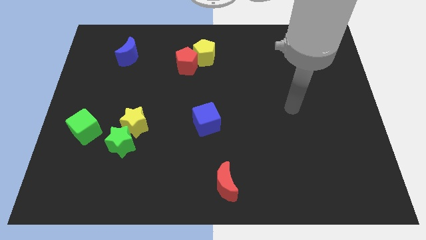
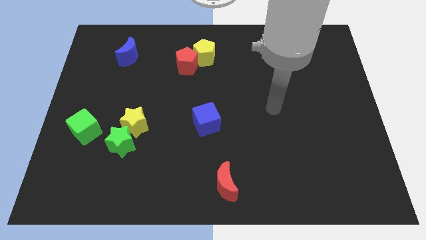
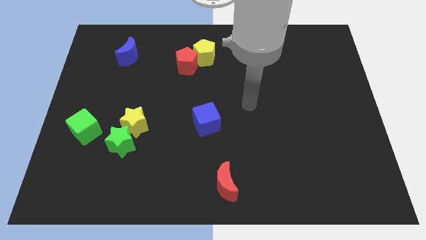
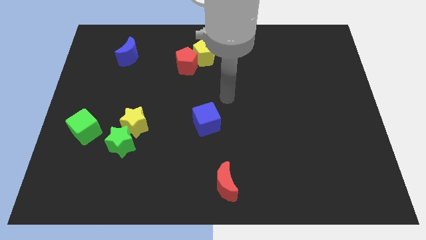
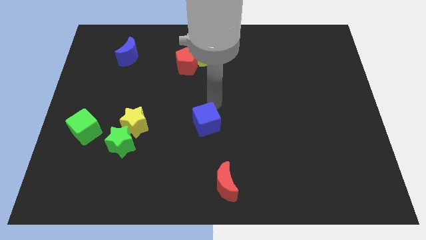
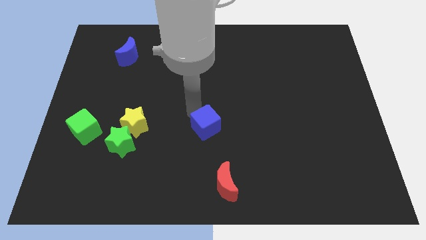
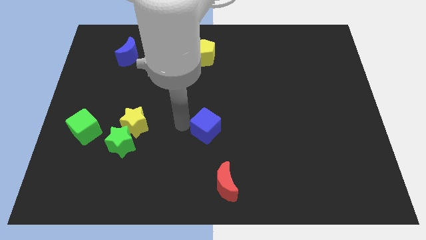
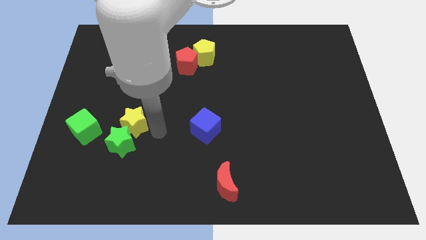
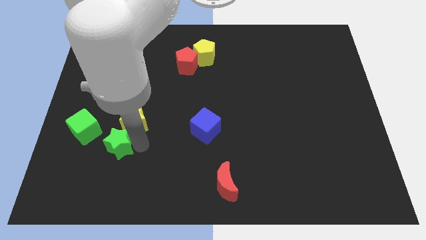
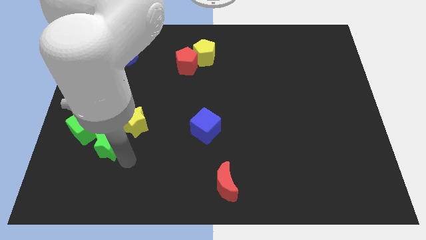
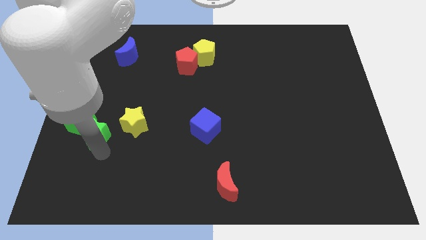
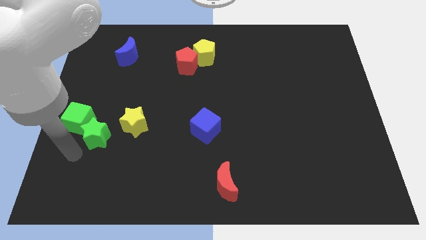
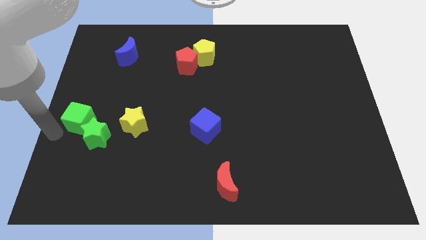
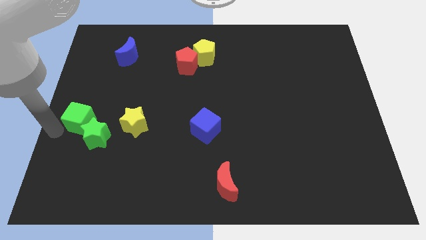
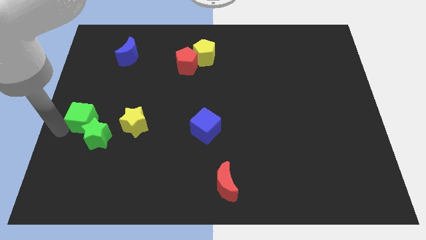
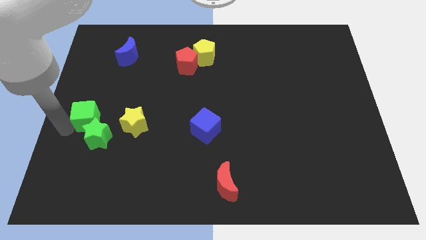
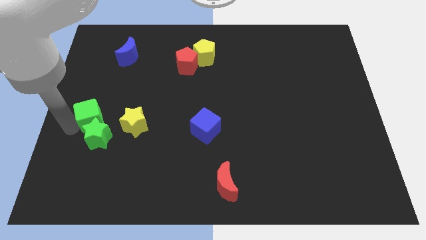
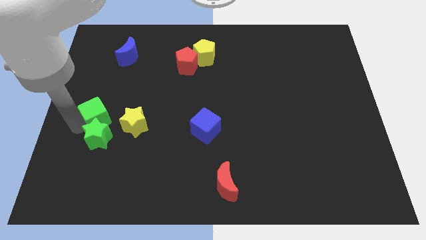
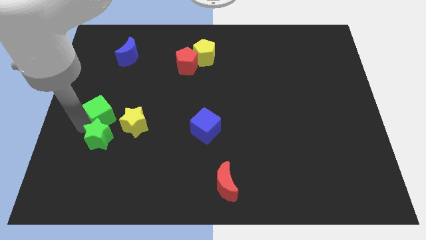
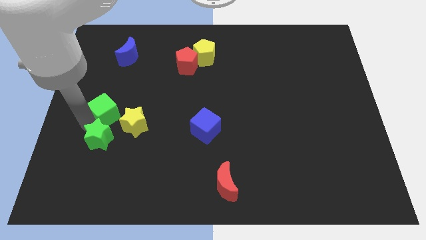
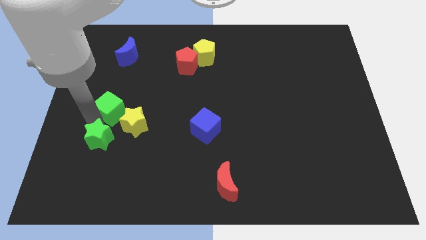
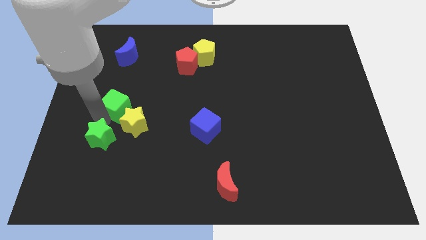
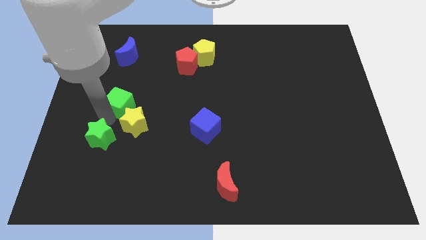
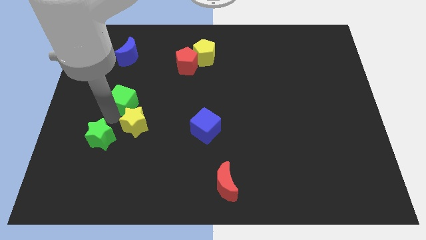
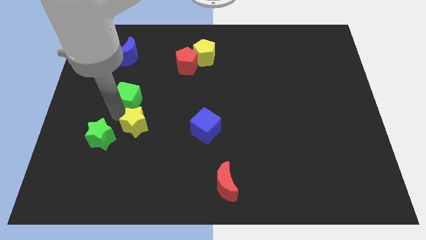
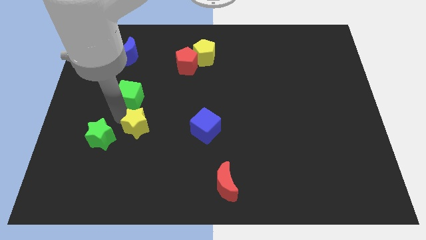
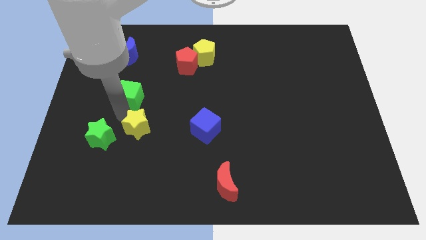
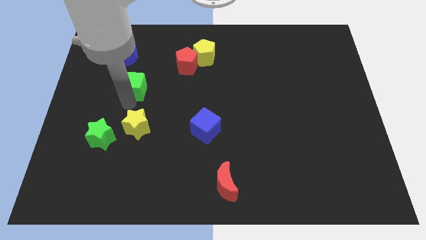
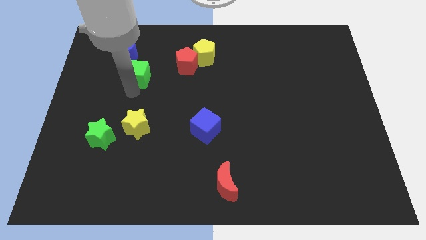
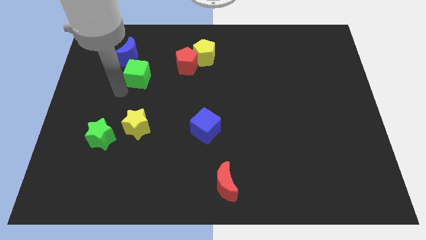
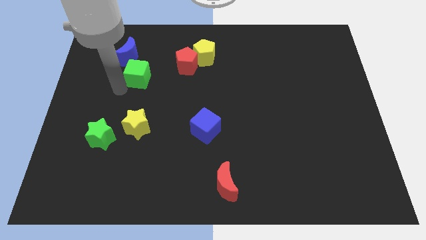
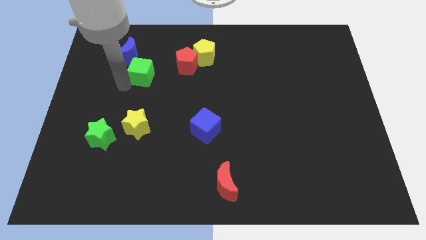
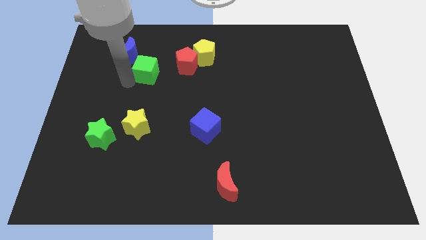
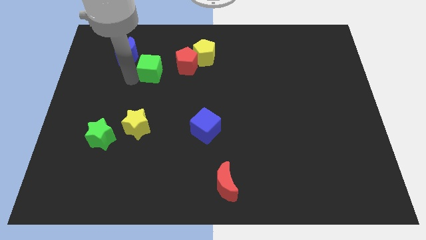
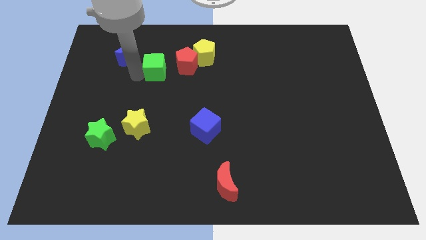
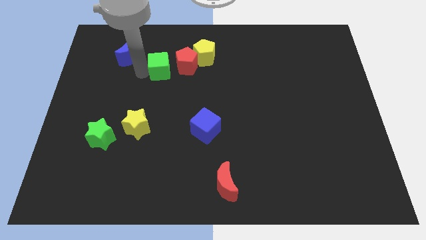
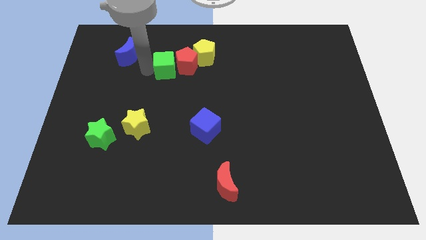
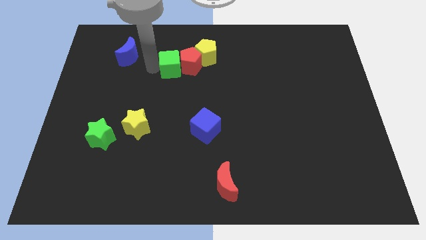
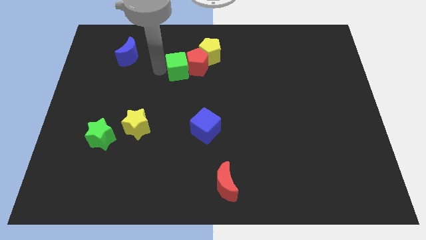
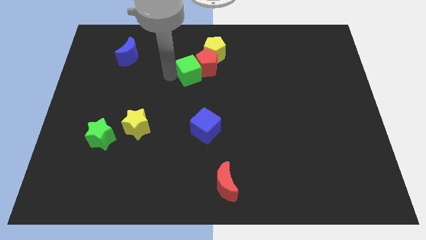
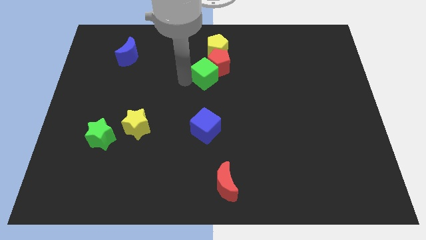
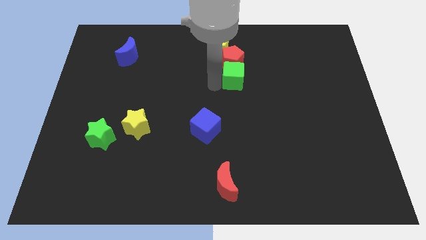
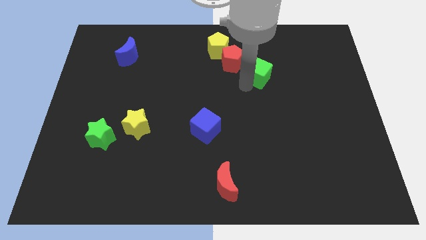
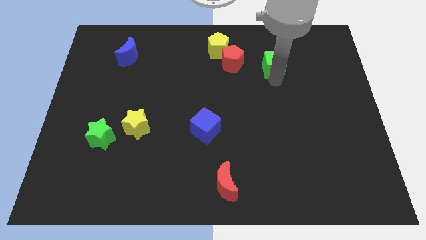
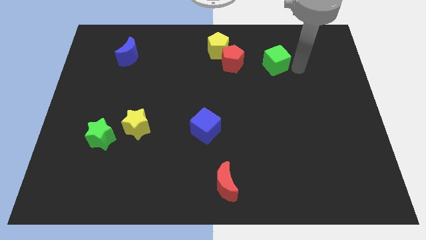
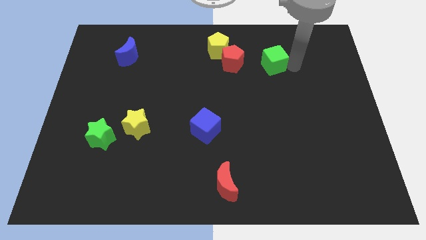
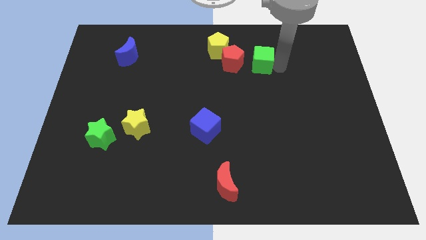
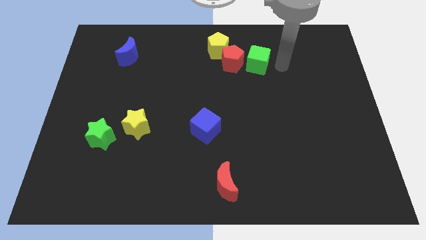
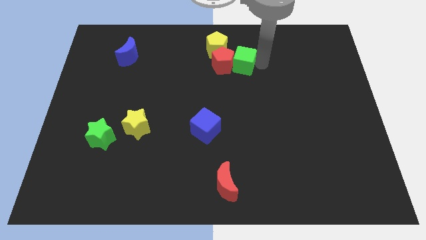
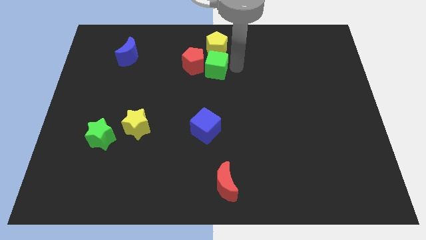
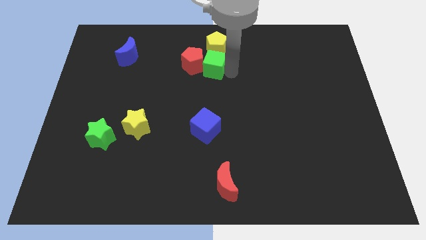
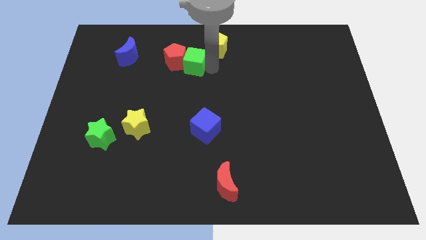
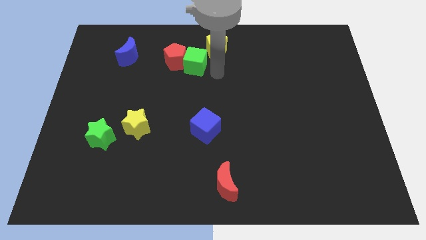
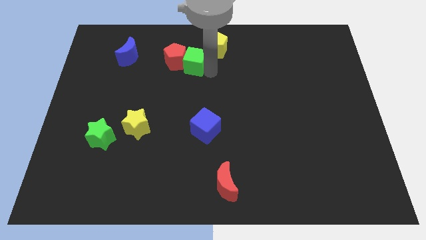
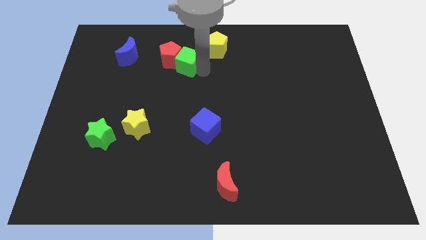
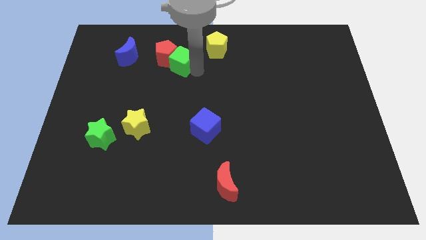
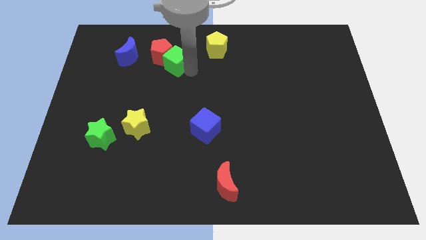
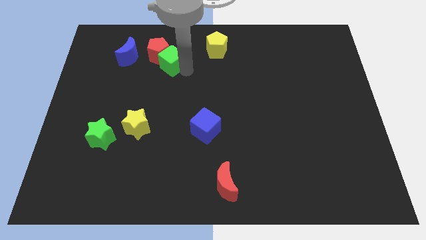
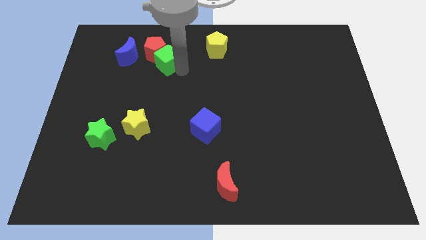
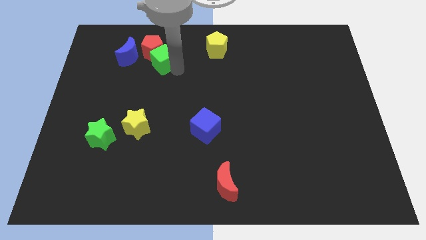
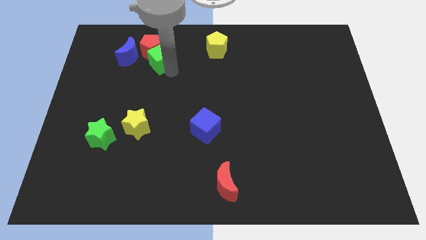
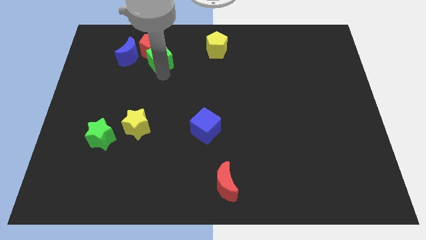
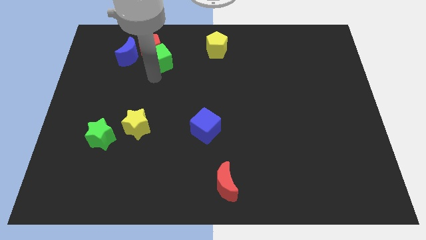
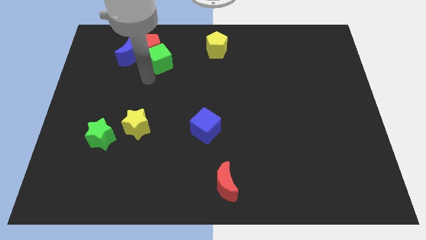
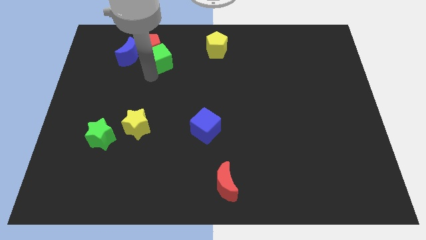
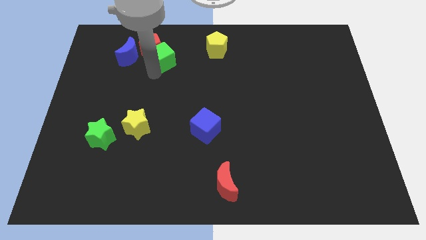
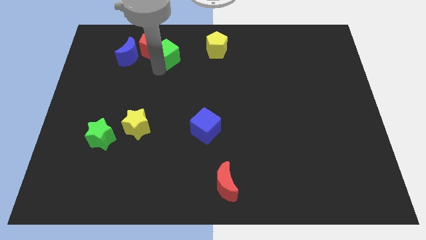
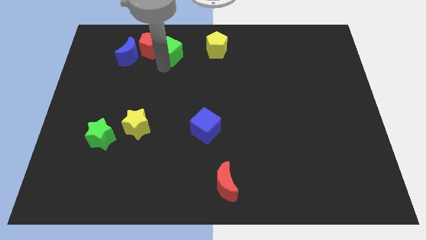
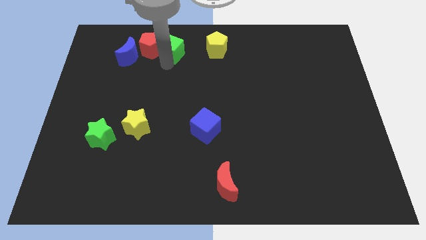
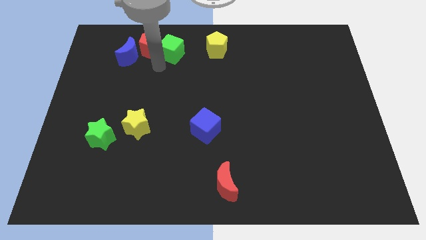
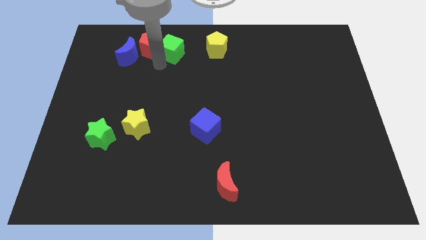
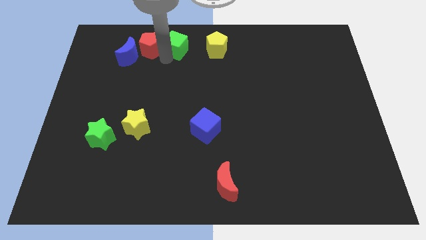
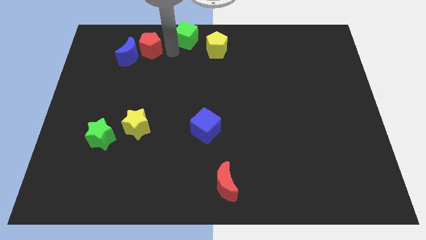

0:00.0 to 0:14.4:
push the green cube to the top side
